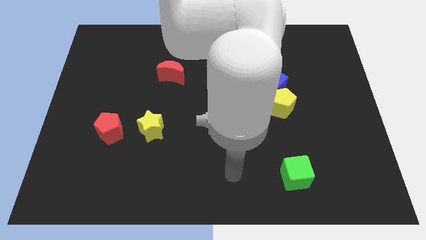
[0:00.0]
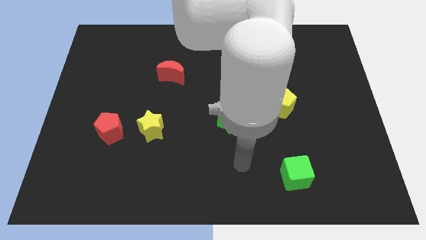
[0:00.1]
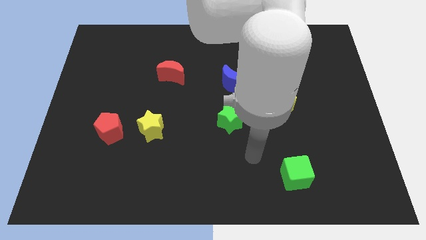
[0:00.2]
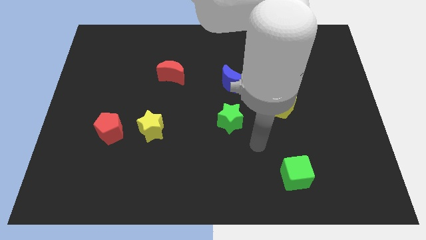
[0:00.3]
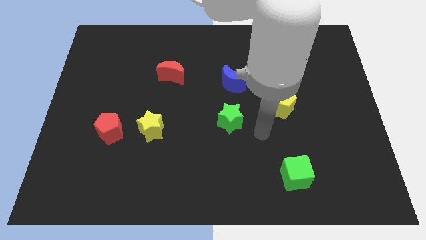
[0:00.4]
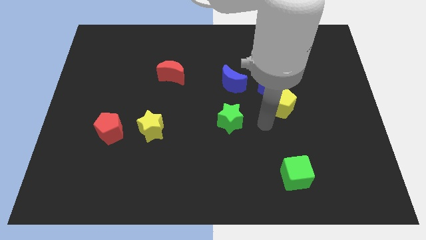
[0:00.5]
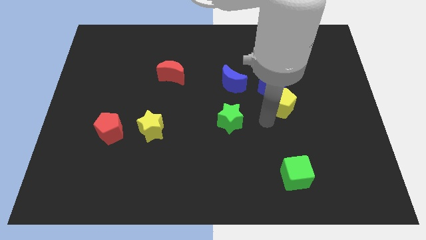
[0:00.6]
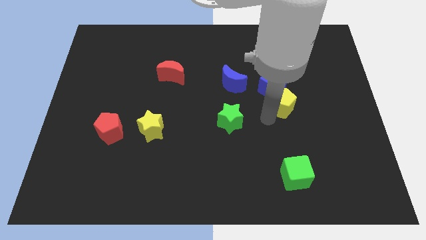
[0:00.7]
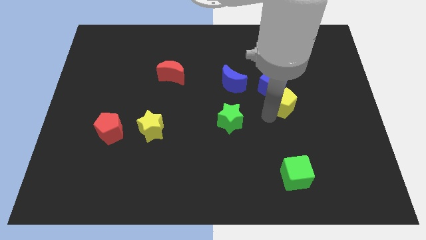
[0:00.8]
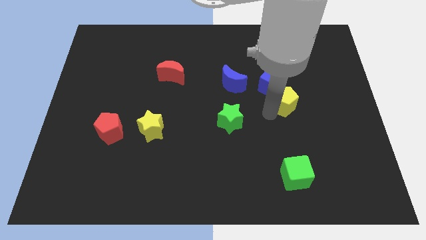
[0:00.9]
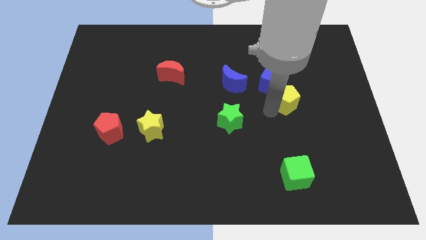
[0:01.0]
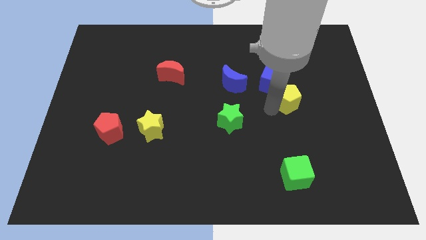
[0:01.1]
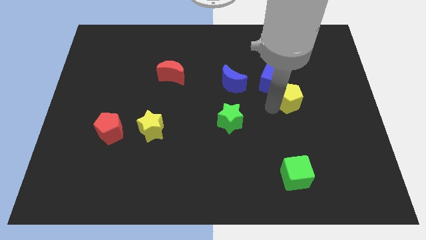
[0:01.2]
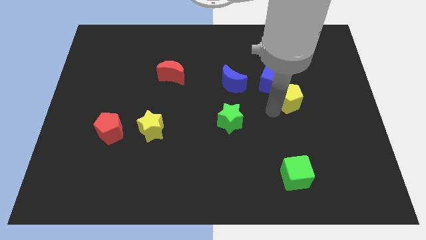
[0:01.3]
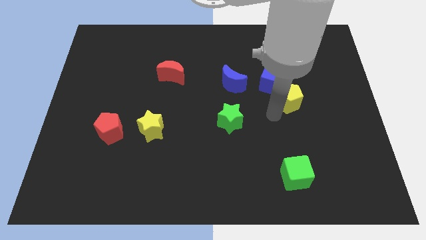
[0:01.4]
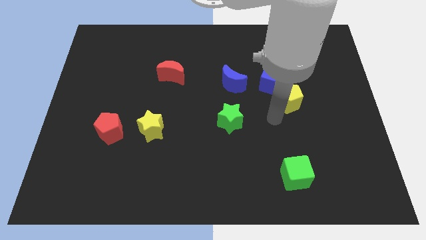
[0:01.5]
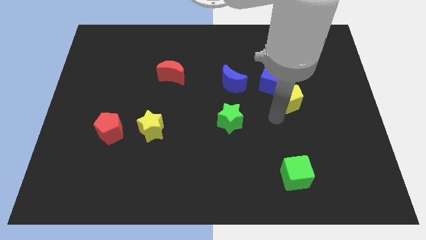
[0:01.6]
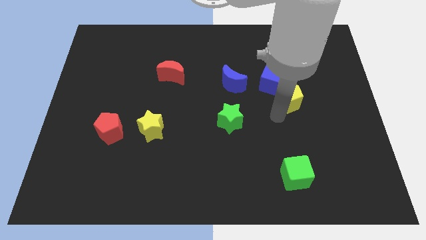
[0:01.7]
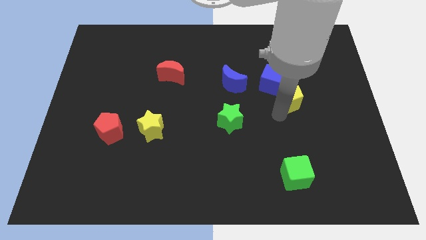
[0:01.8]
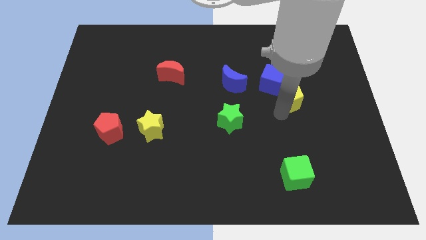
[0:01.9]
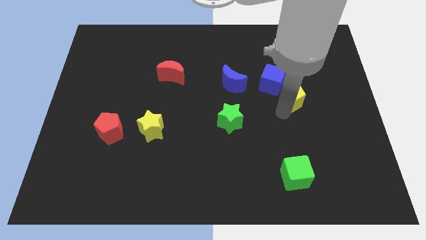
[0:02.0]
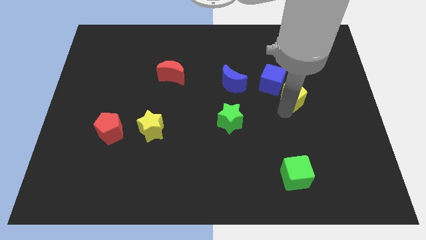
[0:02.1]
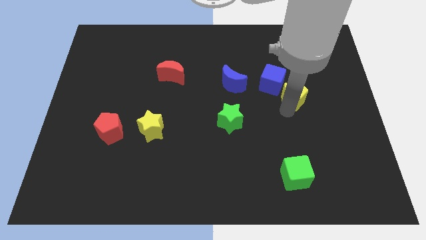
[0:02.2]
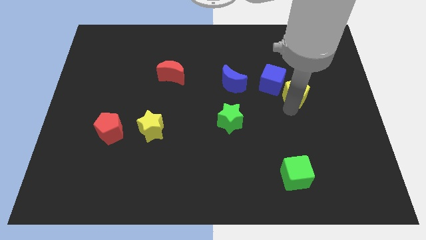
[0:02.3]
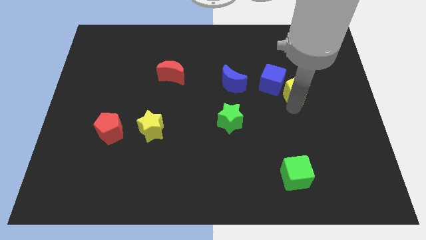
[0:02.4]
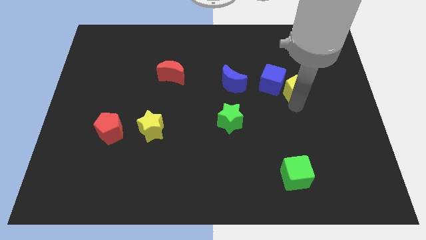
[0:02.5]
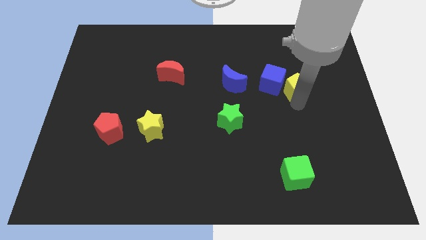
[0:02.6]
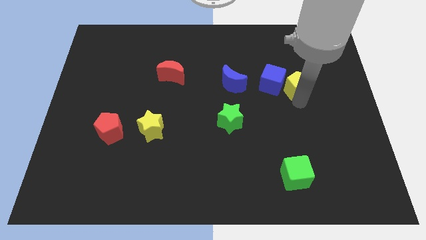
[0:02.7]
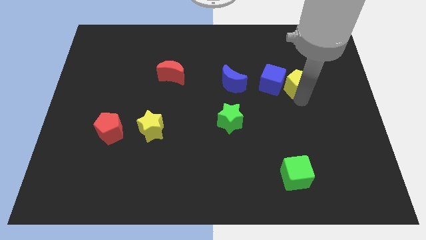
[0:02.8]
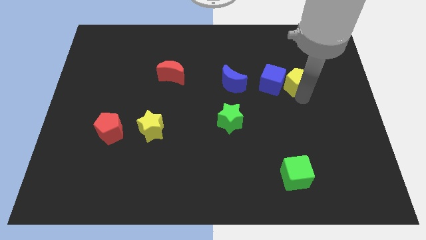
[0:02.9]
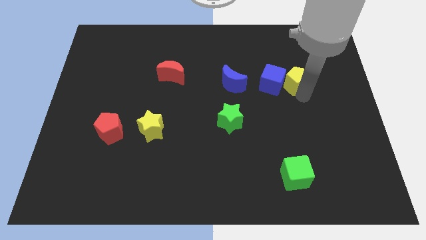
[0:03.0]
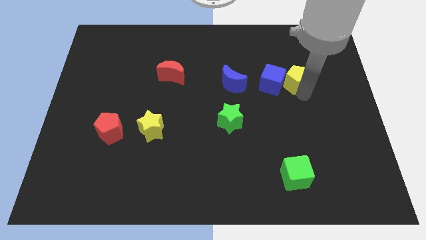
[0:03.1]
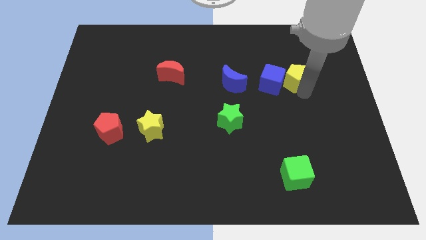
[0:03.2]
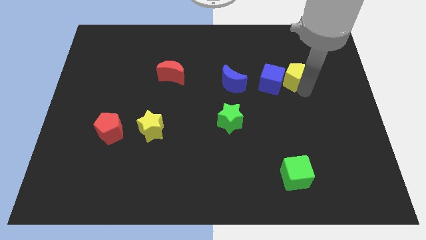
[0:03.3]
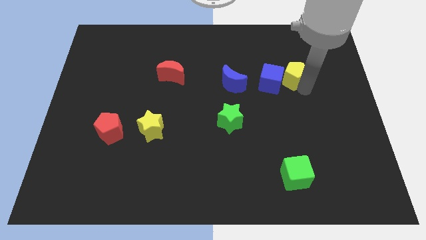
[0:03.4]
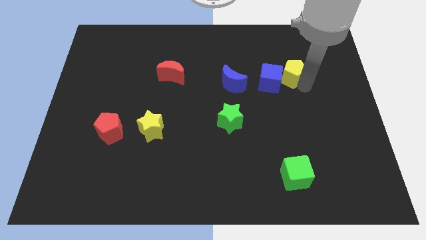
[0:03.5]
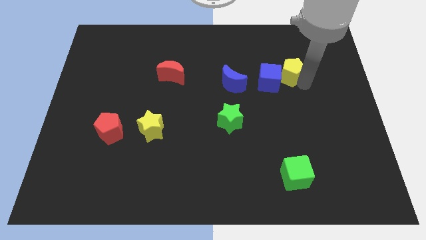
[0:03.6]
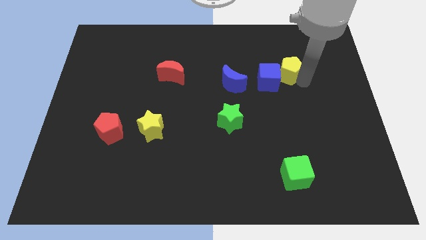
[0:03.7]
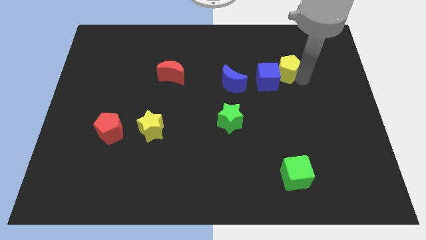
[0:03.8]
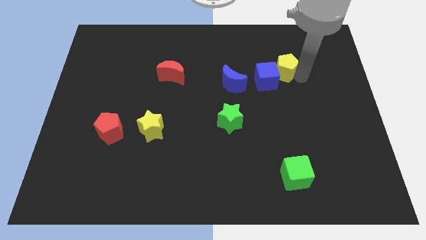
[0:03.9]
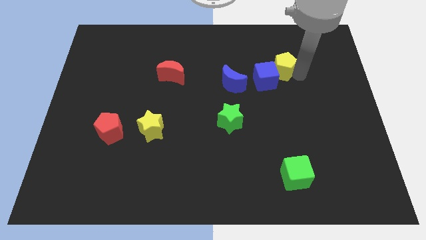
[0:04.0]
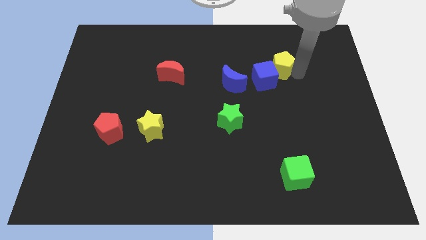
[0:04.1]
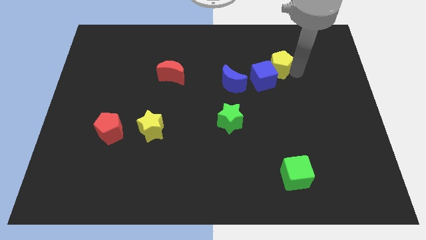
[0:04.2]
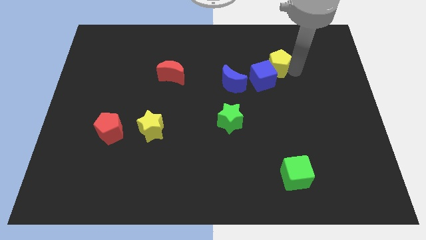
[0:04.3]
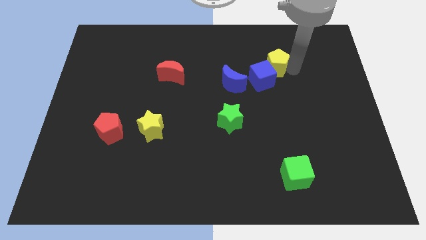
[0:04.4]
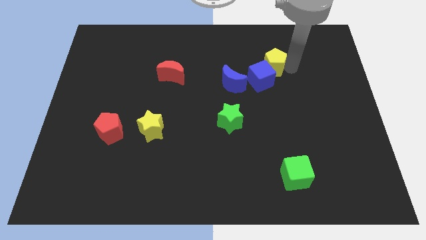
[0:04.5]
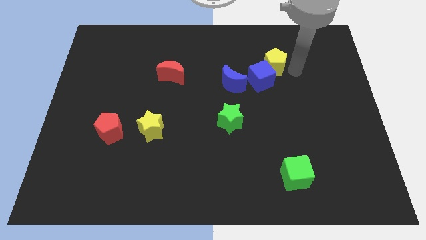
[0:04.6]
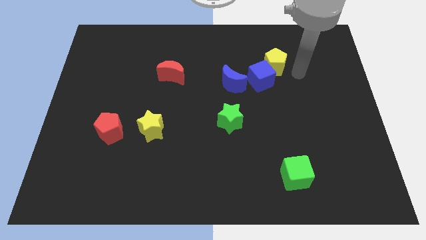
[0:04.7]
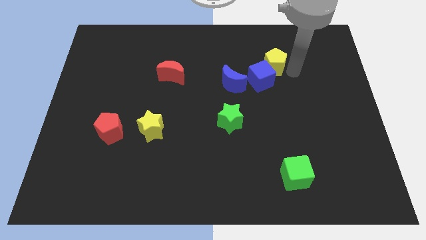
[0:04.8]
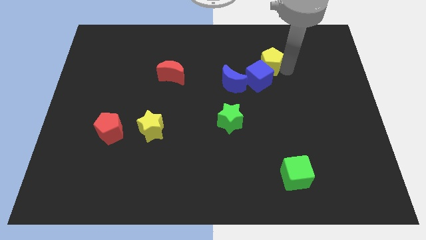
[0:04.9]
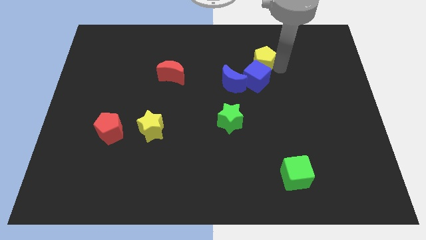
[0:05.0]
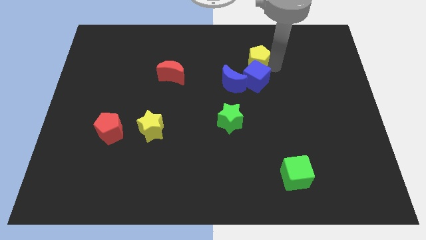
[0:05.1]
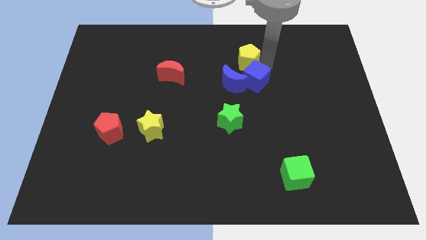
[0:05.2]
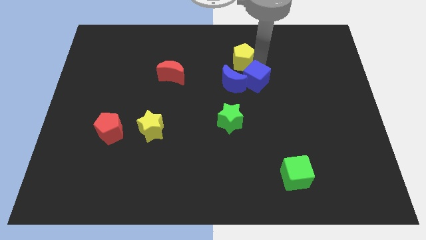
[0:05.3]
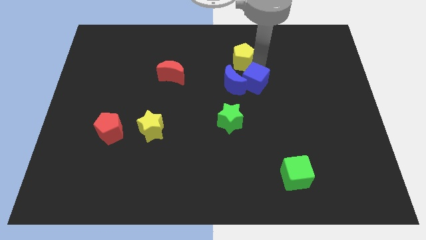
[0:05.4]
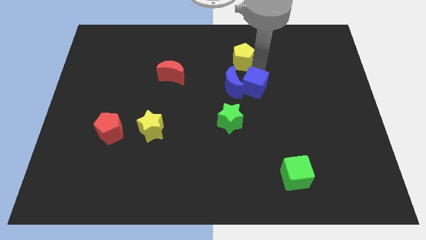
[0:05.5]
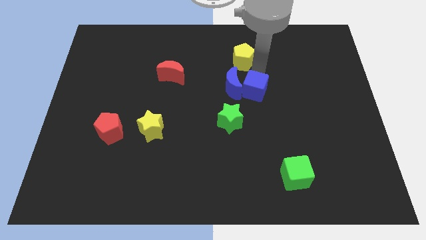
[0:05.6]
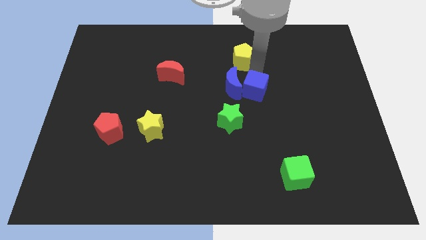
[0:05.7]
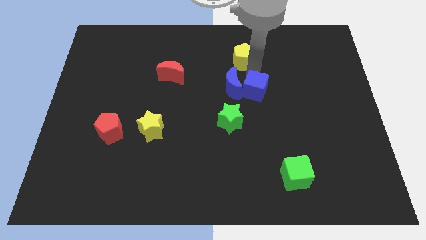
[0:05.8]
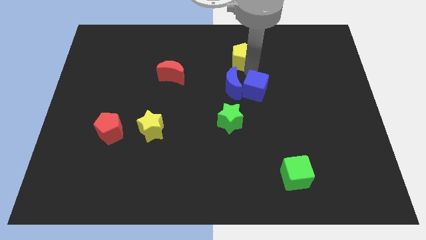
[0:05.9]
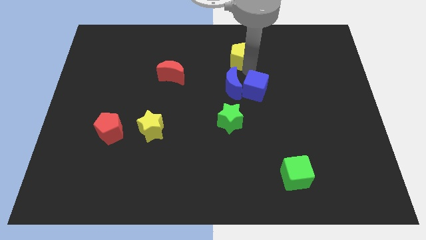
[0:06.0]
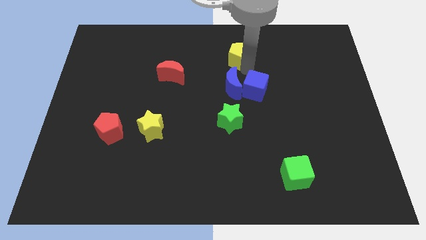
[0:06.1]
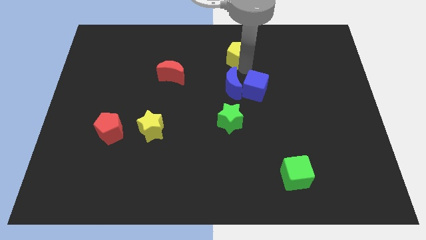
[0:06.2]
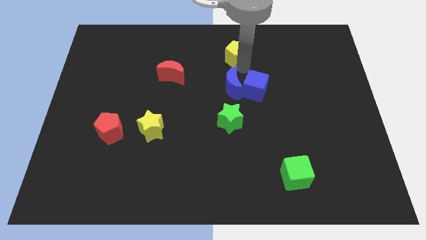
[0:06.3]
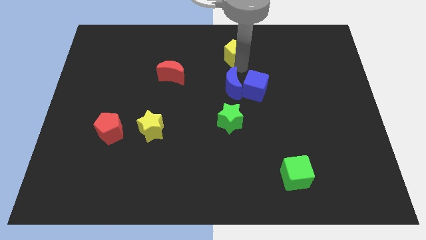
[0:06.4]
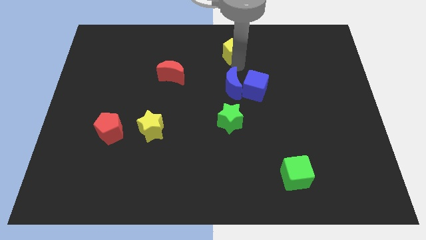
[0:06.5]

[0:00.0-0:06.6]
move the yellow pentagon to the towards your base

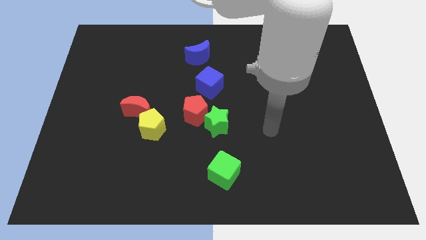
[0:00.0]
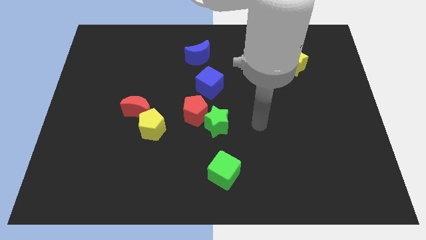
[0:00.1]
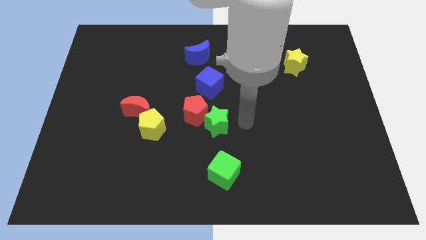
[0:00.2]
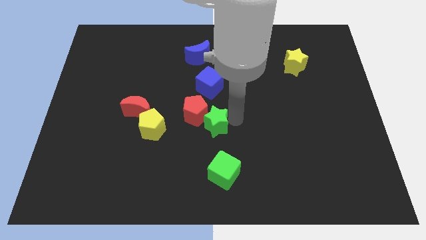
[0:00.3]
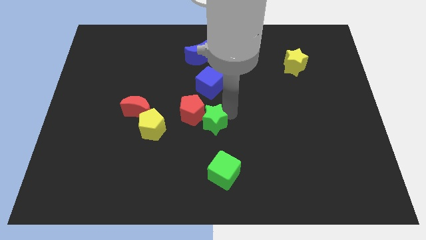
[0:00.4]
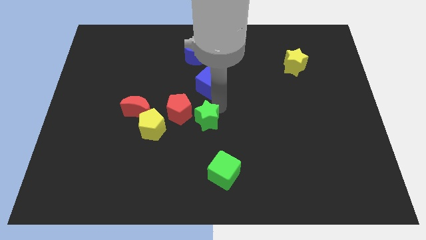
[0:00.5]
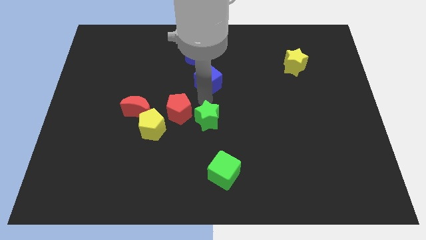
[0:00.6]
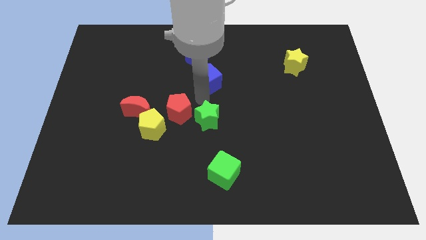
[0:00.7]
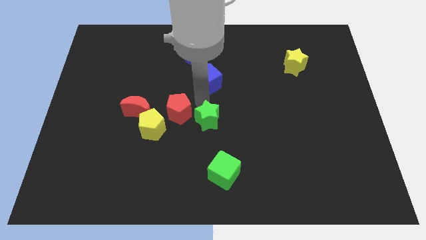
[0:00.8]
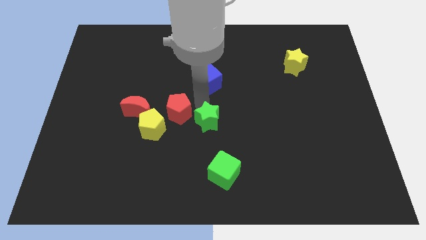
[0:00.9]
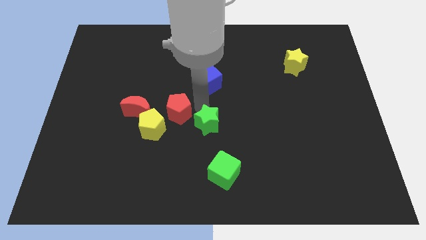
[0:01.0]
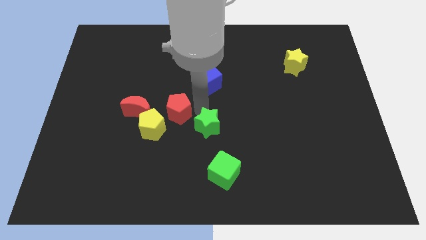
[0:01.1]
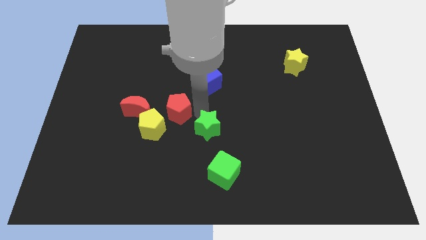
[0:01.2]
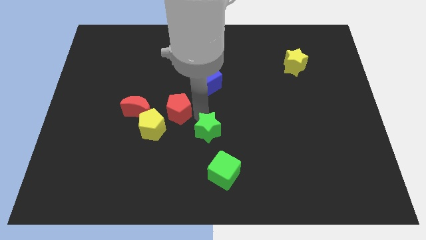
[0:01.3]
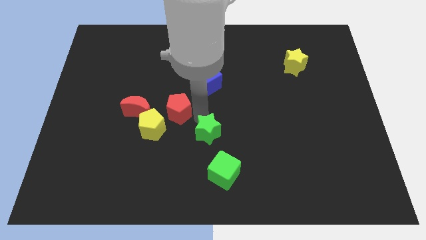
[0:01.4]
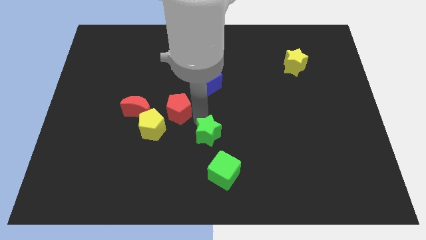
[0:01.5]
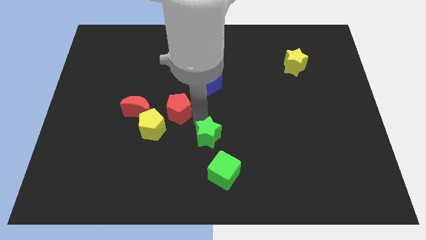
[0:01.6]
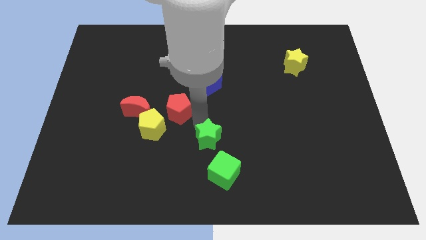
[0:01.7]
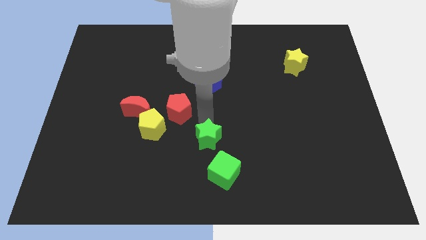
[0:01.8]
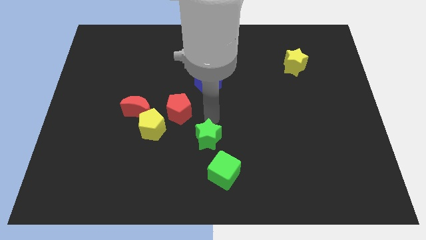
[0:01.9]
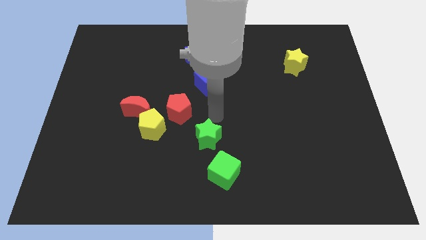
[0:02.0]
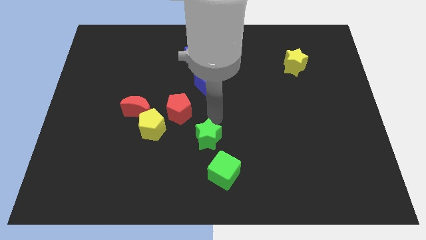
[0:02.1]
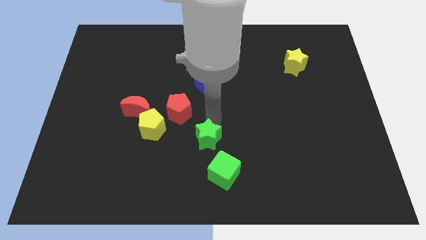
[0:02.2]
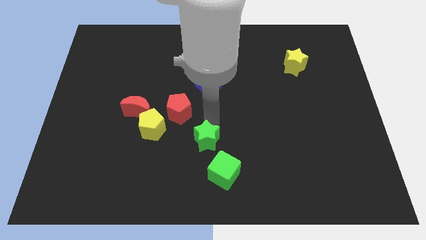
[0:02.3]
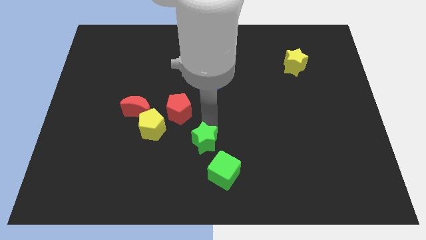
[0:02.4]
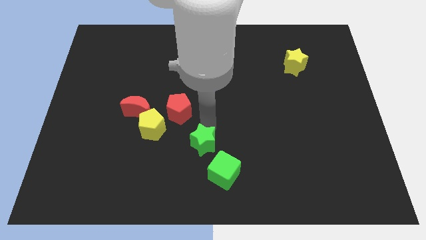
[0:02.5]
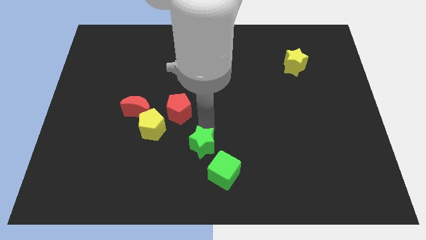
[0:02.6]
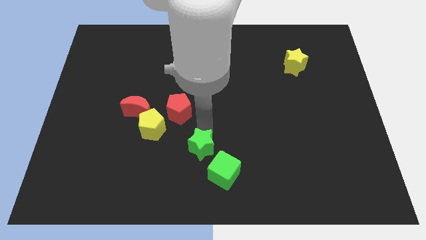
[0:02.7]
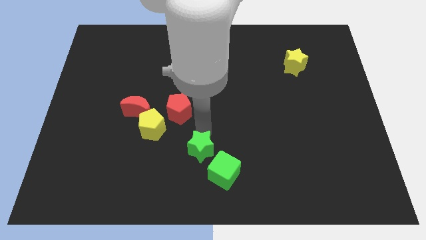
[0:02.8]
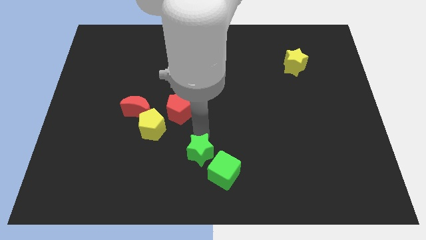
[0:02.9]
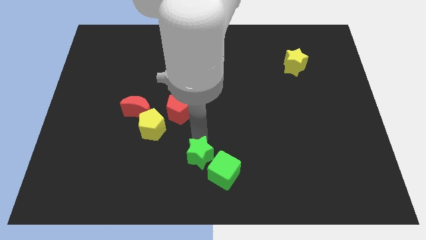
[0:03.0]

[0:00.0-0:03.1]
put the green star to the bottom side
